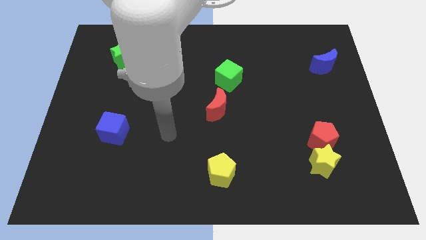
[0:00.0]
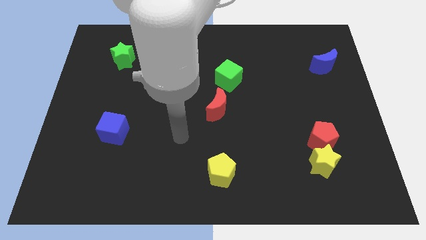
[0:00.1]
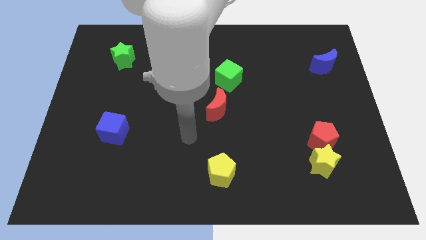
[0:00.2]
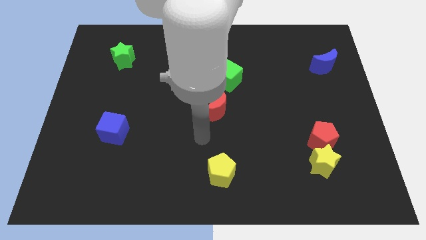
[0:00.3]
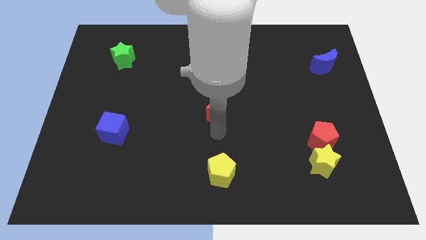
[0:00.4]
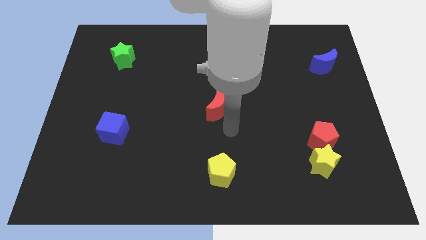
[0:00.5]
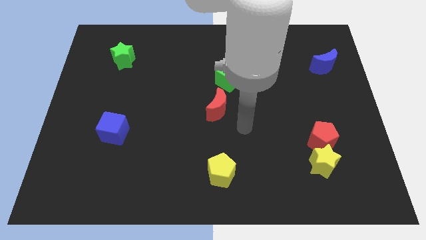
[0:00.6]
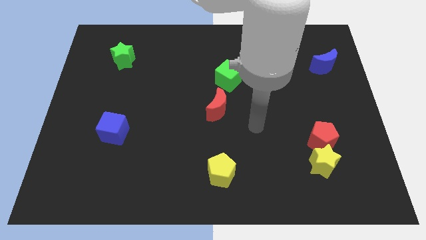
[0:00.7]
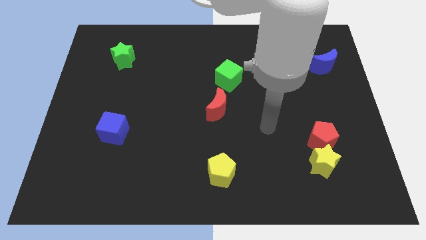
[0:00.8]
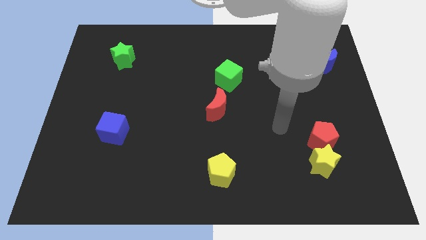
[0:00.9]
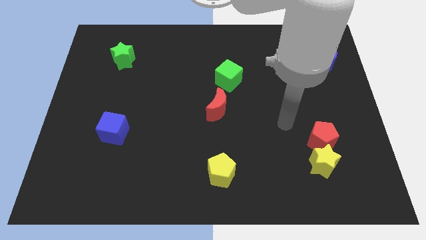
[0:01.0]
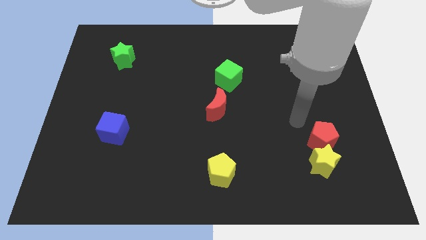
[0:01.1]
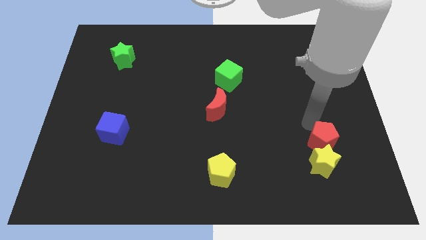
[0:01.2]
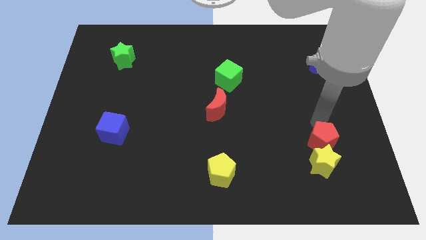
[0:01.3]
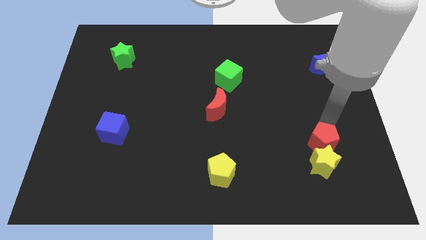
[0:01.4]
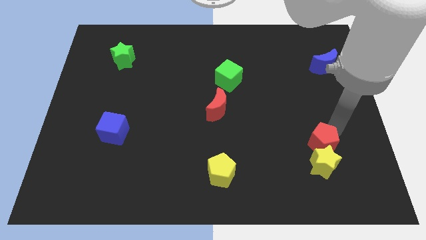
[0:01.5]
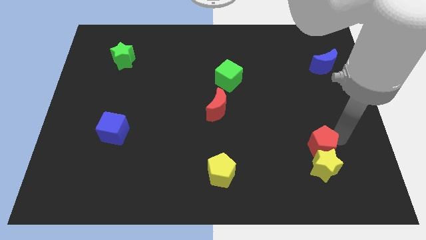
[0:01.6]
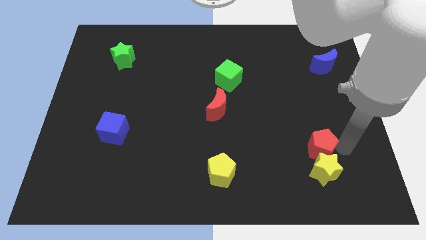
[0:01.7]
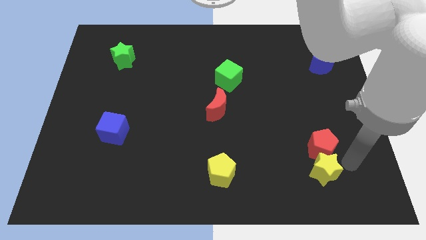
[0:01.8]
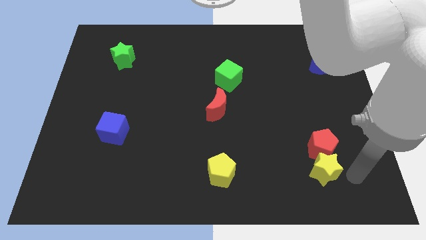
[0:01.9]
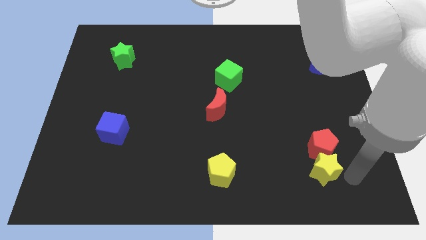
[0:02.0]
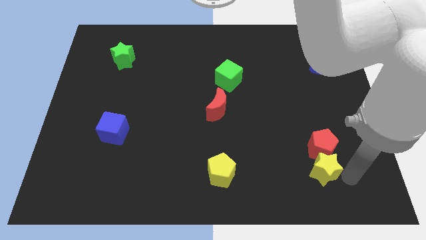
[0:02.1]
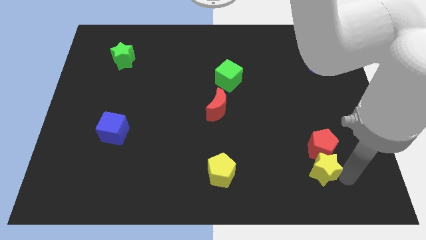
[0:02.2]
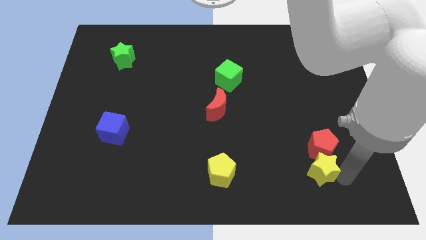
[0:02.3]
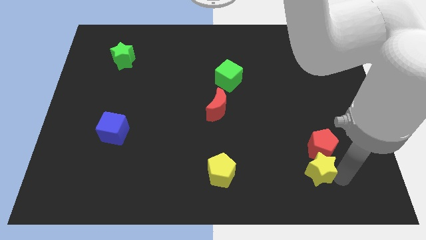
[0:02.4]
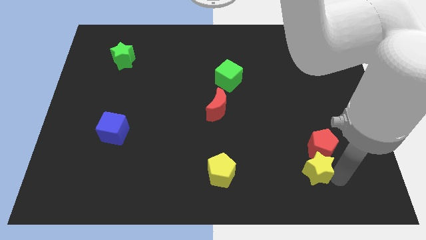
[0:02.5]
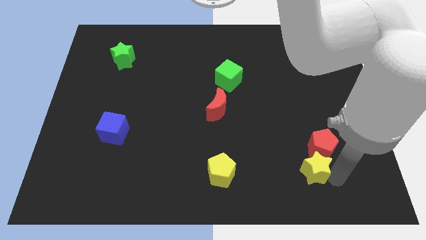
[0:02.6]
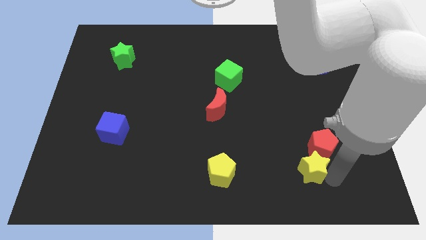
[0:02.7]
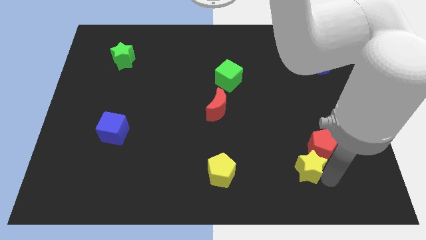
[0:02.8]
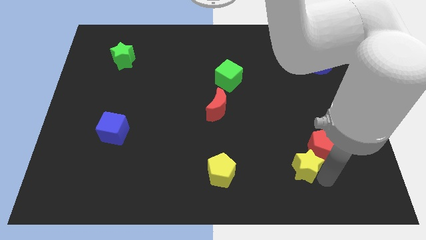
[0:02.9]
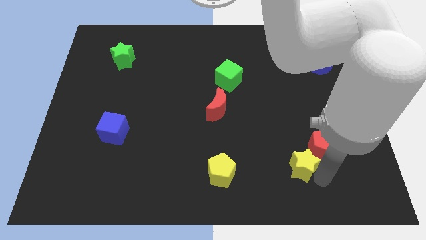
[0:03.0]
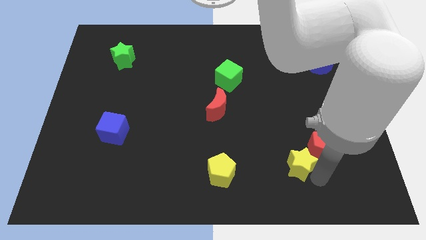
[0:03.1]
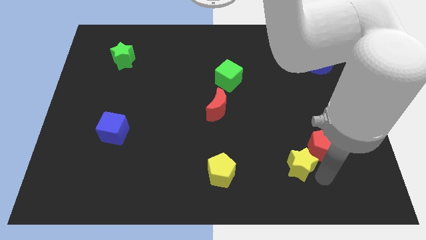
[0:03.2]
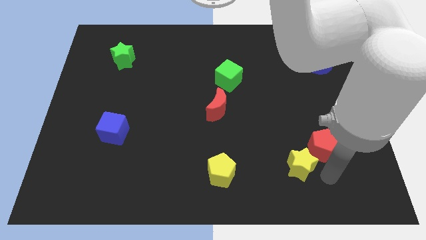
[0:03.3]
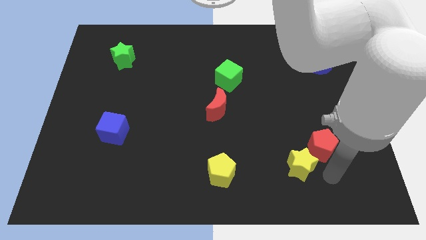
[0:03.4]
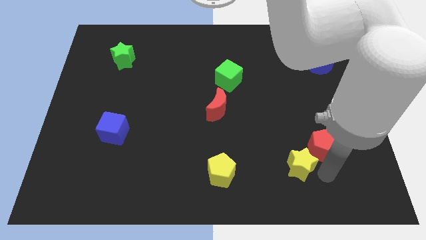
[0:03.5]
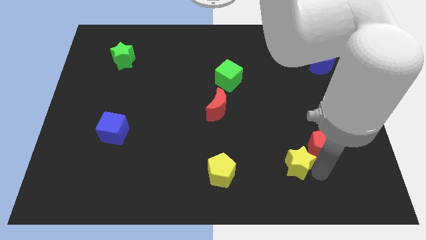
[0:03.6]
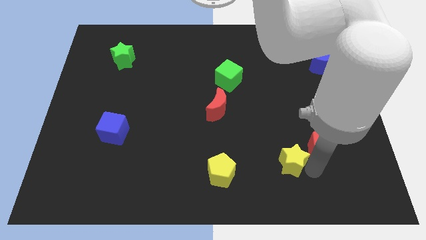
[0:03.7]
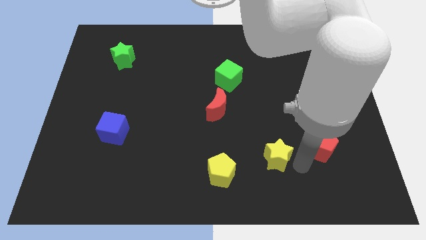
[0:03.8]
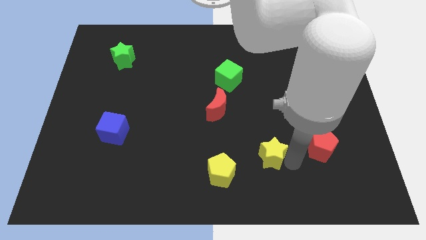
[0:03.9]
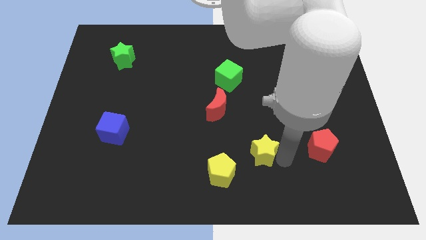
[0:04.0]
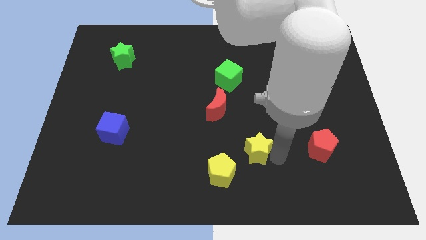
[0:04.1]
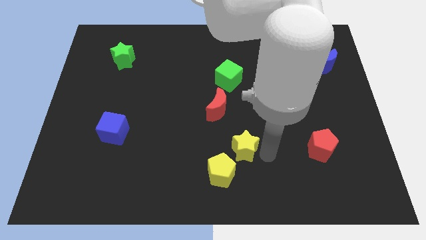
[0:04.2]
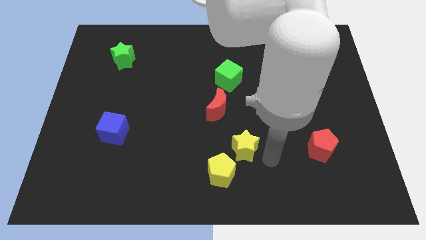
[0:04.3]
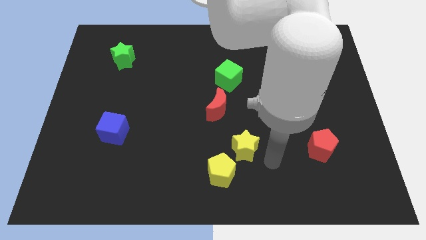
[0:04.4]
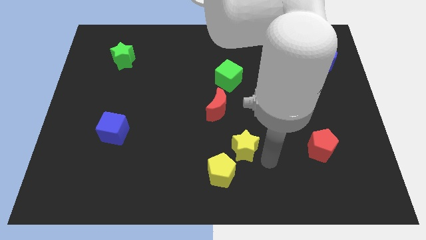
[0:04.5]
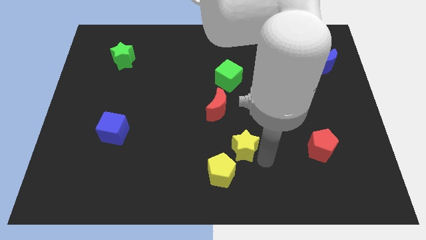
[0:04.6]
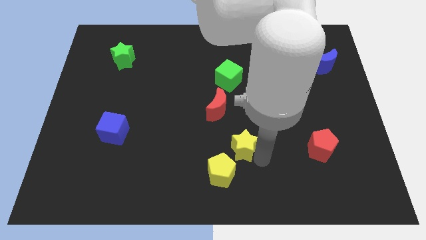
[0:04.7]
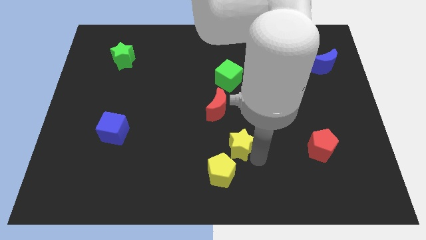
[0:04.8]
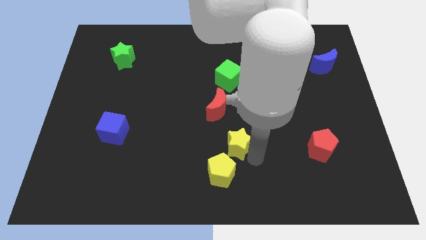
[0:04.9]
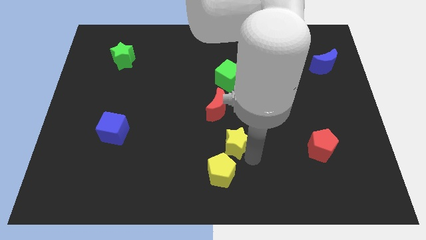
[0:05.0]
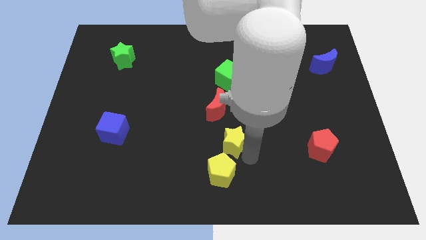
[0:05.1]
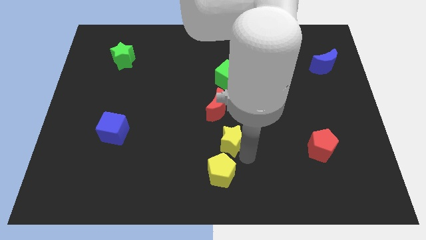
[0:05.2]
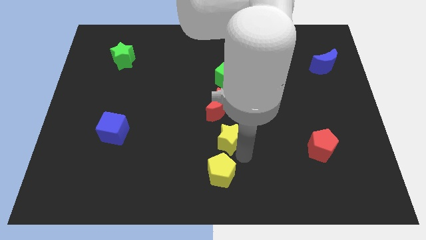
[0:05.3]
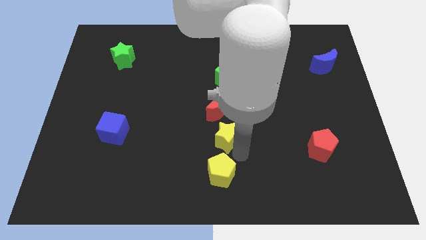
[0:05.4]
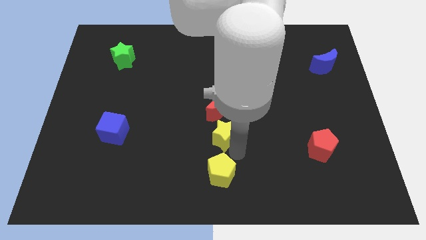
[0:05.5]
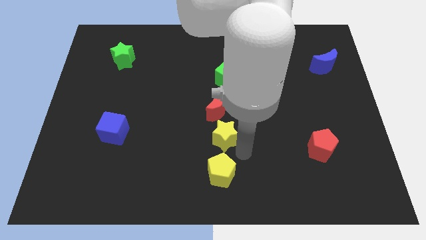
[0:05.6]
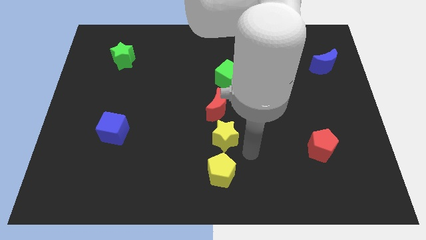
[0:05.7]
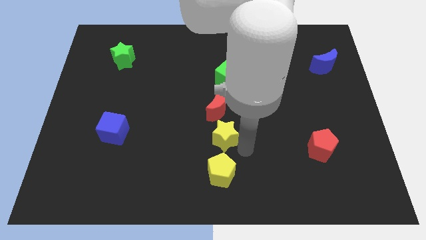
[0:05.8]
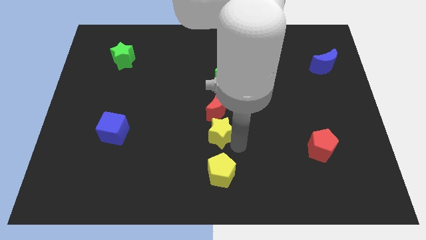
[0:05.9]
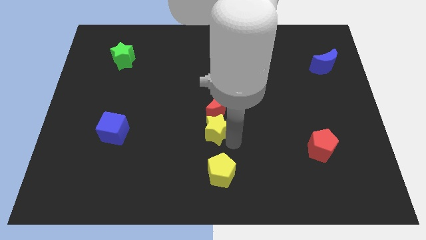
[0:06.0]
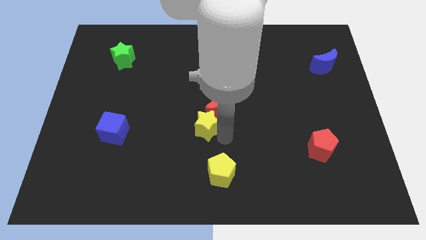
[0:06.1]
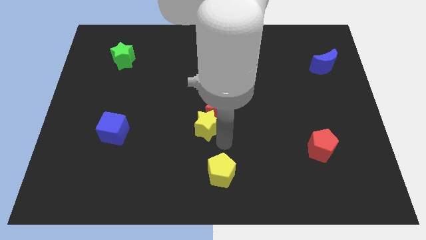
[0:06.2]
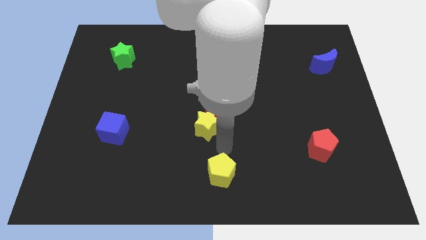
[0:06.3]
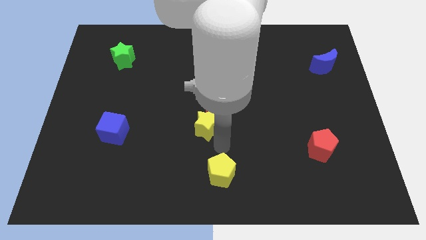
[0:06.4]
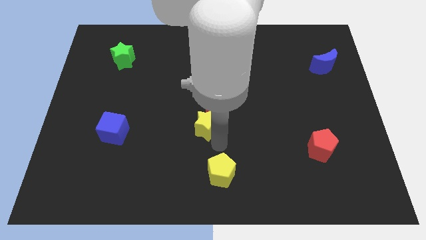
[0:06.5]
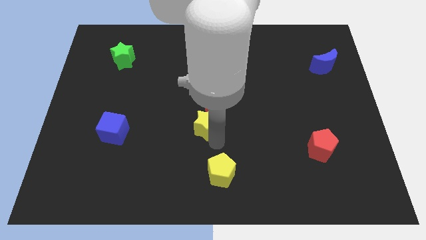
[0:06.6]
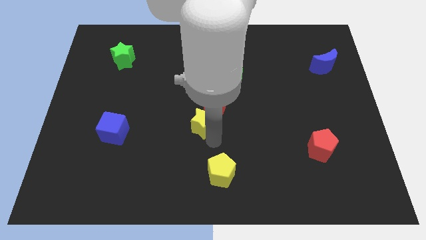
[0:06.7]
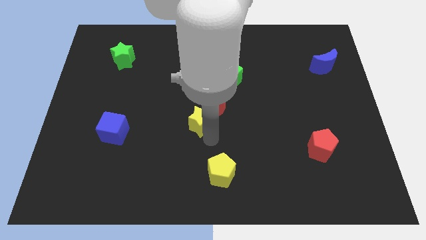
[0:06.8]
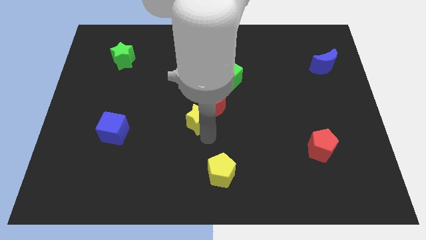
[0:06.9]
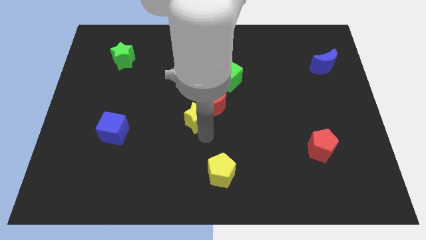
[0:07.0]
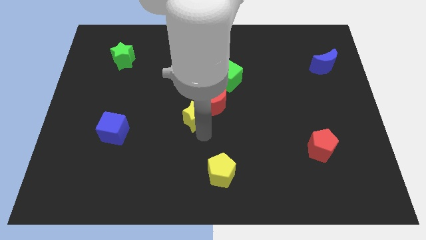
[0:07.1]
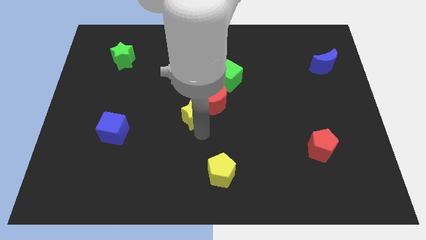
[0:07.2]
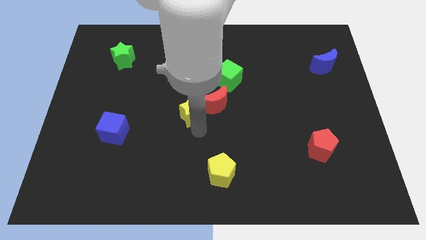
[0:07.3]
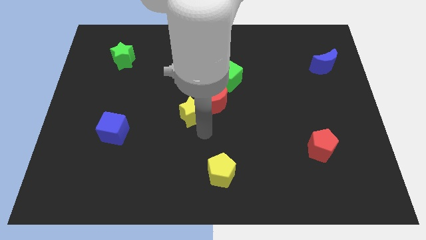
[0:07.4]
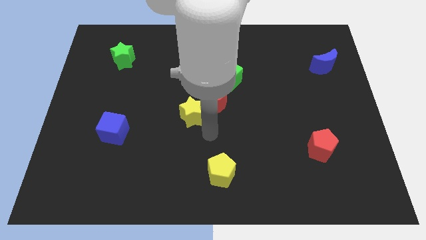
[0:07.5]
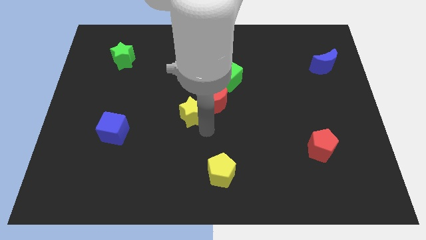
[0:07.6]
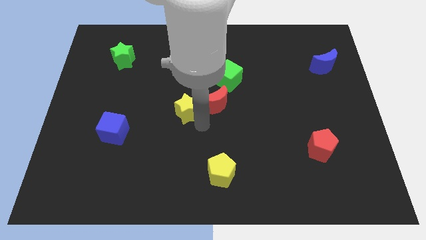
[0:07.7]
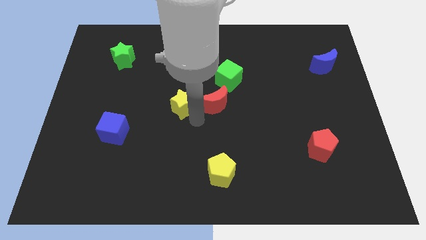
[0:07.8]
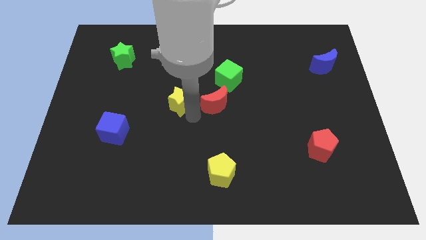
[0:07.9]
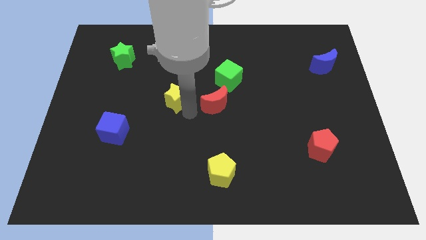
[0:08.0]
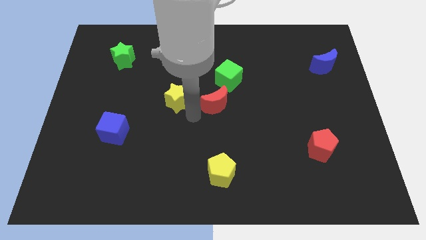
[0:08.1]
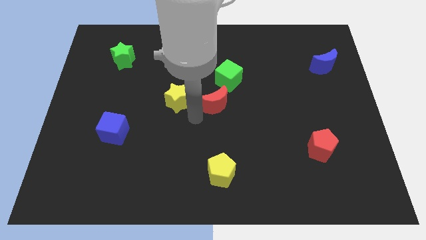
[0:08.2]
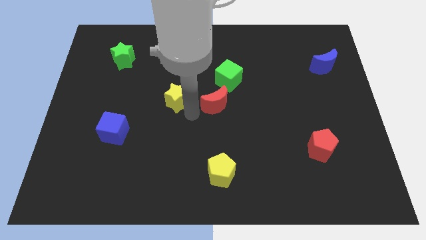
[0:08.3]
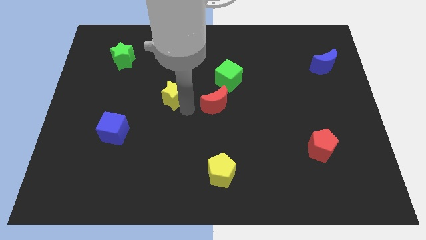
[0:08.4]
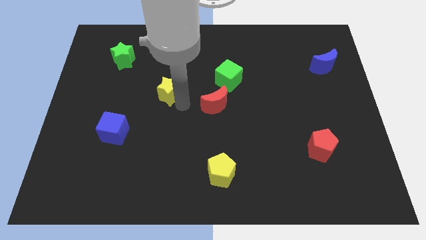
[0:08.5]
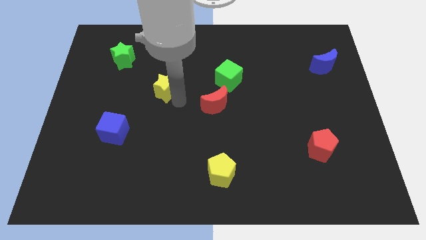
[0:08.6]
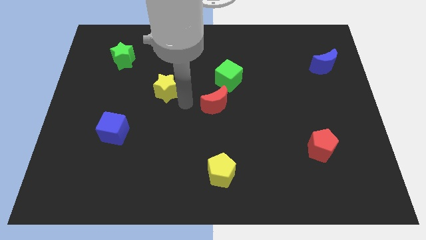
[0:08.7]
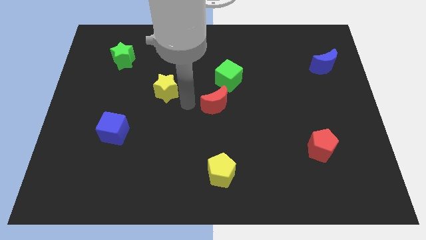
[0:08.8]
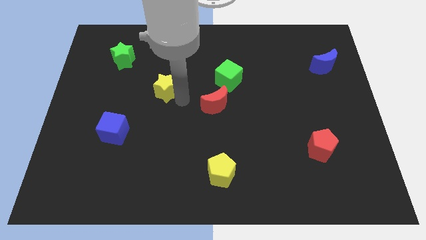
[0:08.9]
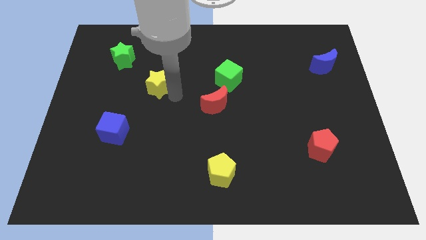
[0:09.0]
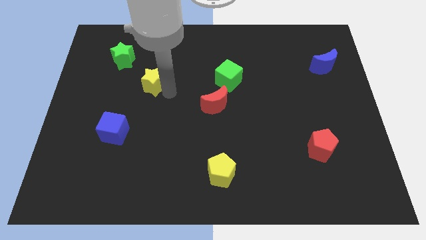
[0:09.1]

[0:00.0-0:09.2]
push the yellow star diagonally down and to the right of the green star
